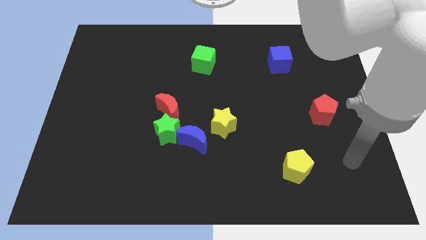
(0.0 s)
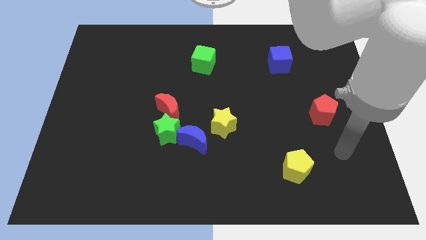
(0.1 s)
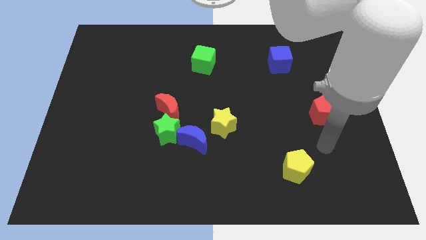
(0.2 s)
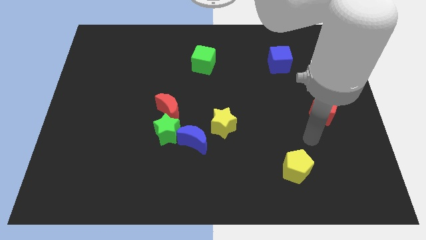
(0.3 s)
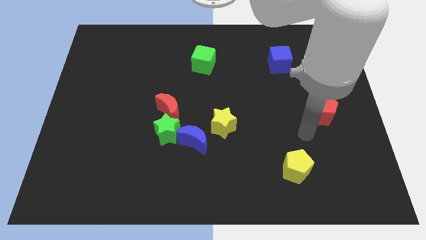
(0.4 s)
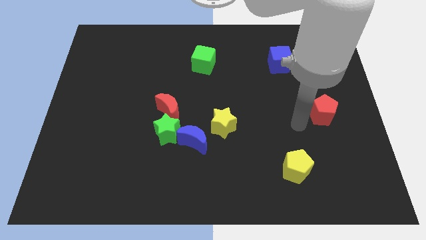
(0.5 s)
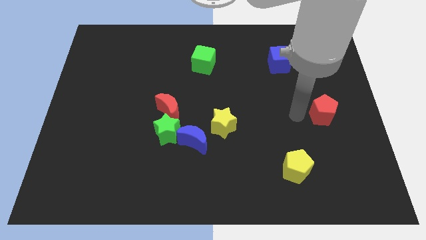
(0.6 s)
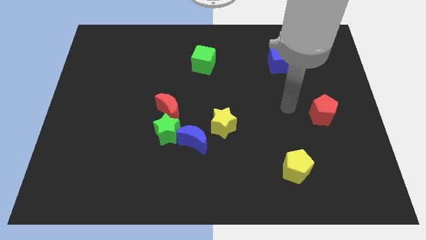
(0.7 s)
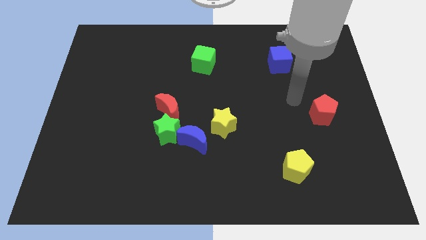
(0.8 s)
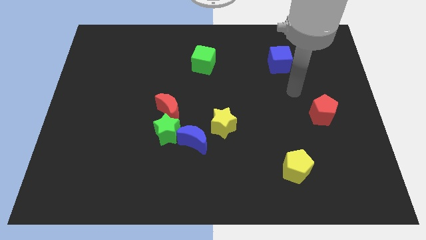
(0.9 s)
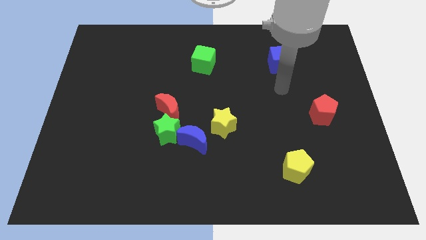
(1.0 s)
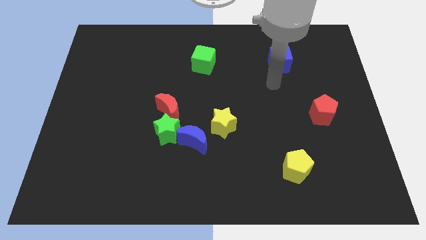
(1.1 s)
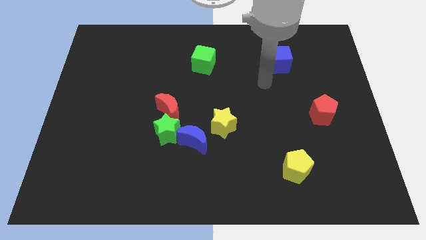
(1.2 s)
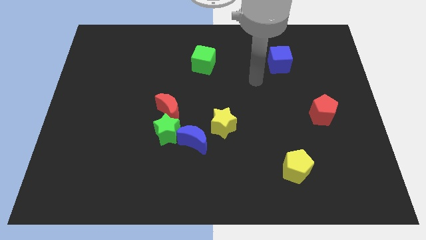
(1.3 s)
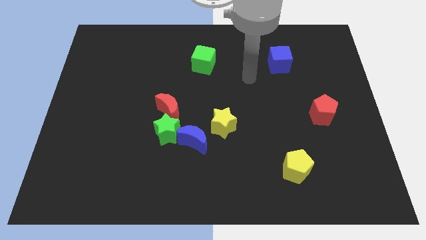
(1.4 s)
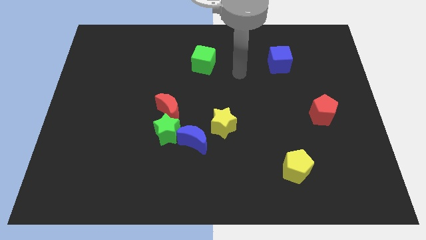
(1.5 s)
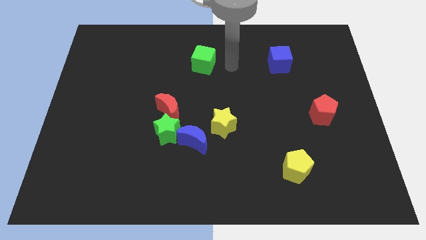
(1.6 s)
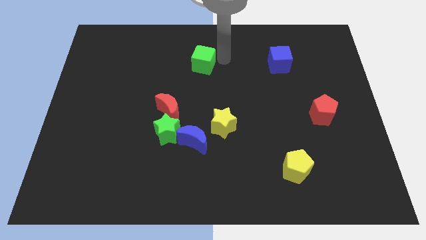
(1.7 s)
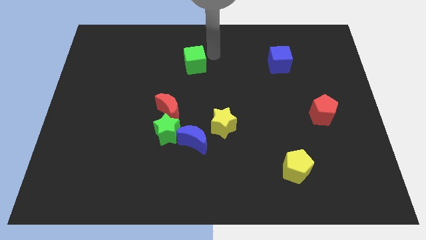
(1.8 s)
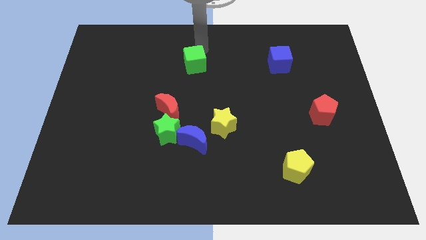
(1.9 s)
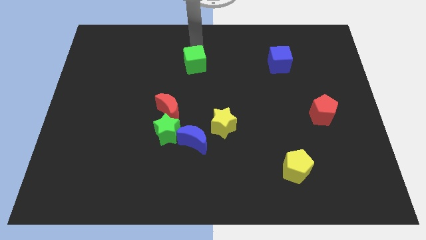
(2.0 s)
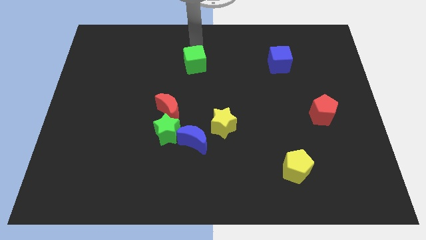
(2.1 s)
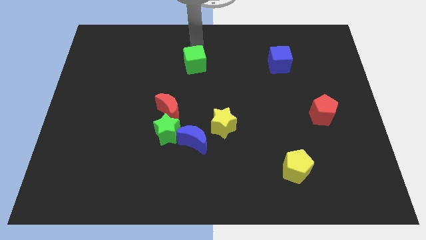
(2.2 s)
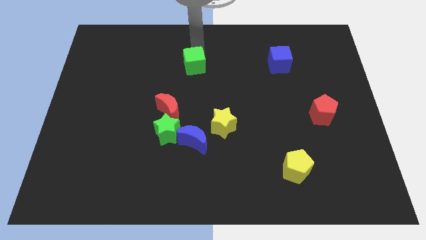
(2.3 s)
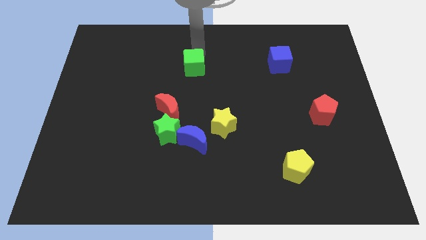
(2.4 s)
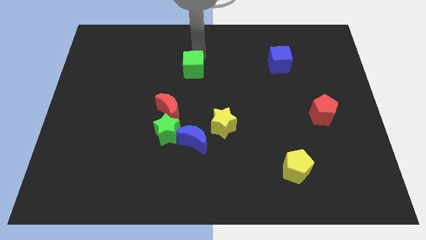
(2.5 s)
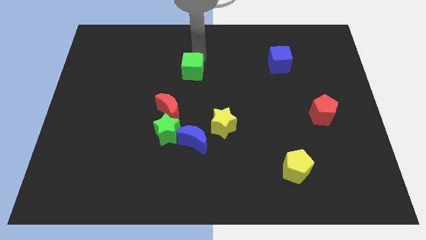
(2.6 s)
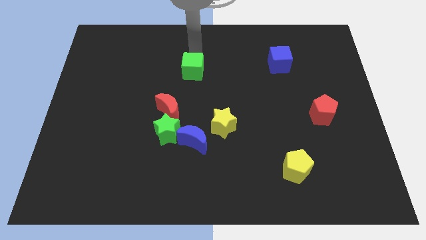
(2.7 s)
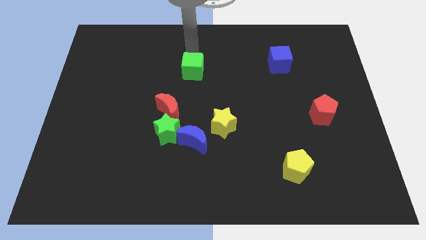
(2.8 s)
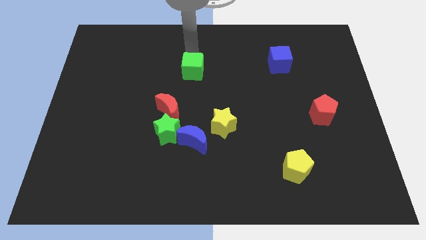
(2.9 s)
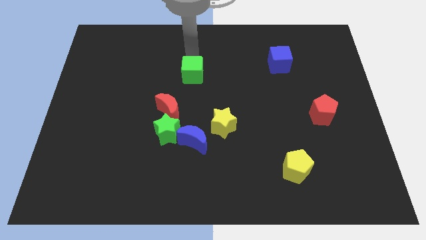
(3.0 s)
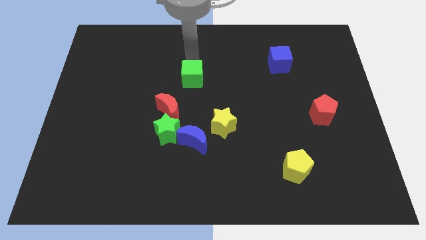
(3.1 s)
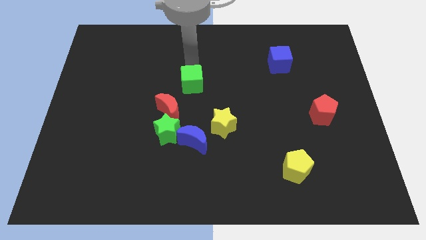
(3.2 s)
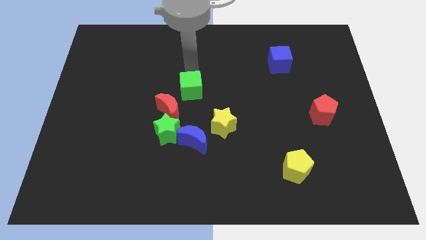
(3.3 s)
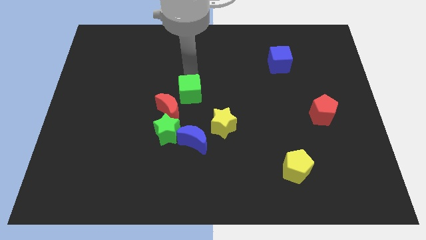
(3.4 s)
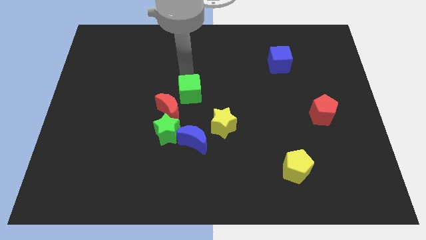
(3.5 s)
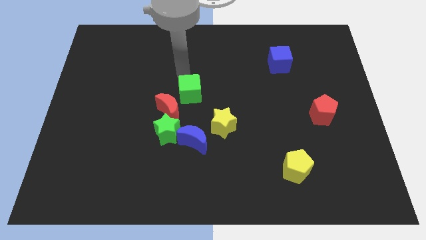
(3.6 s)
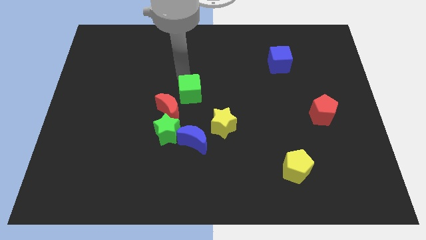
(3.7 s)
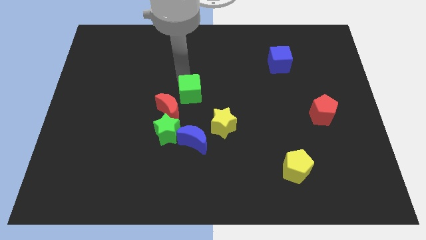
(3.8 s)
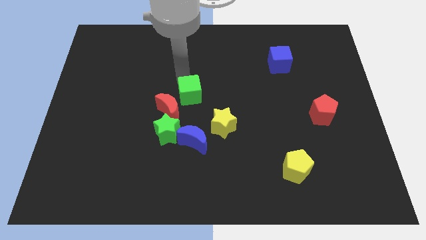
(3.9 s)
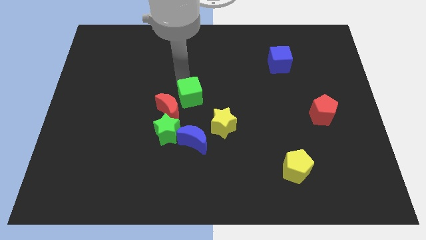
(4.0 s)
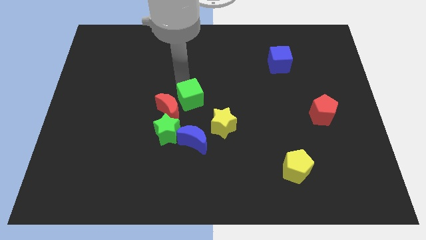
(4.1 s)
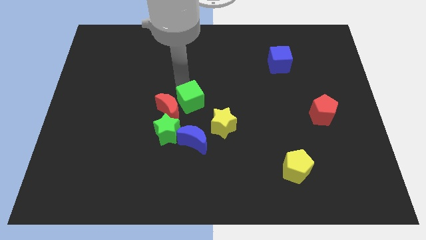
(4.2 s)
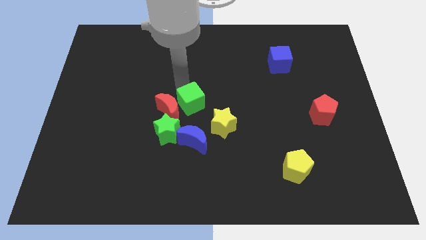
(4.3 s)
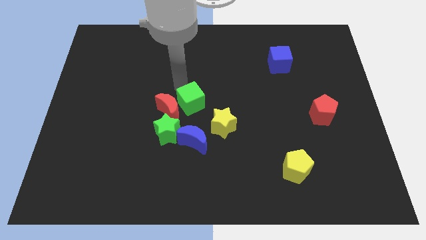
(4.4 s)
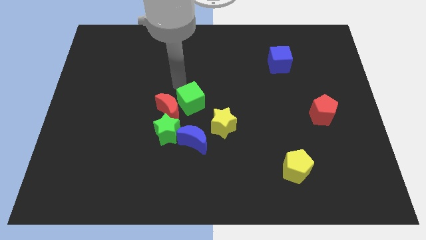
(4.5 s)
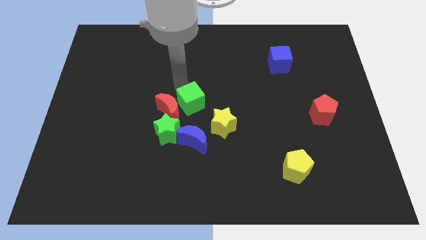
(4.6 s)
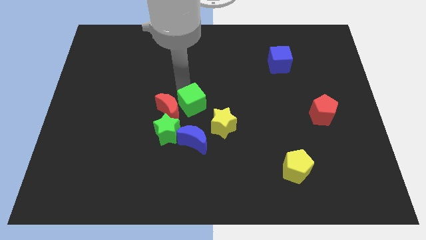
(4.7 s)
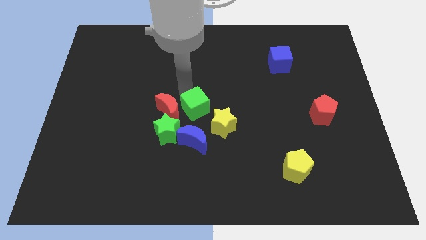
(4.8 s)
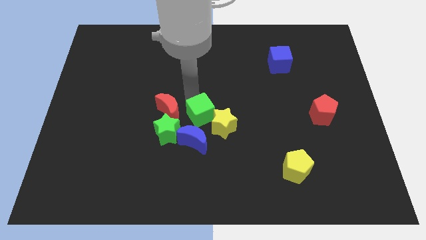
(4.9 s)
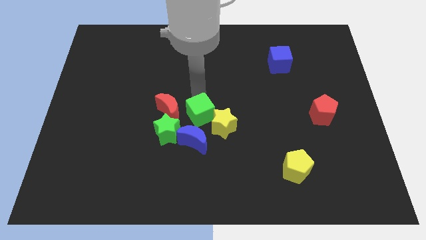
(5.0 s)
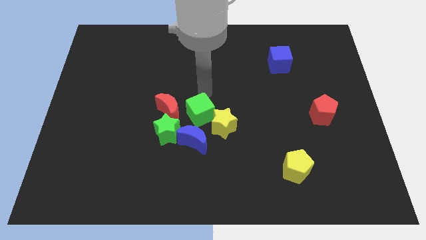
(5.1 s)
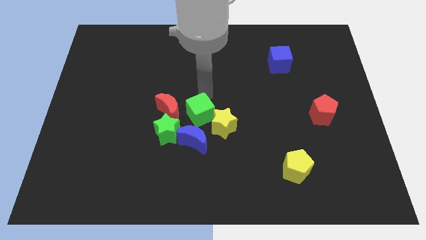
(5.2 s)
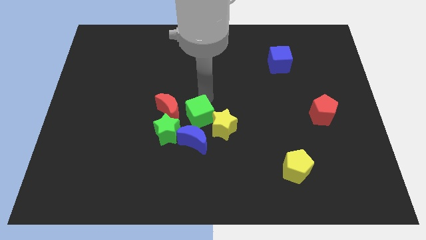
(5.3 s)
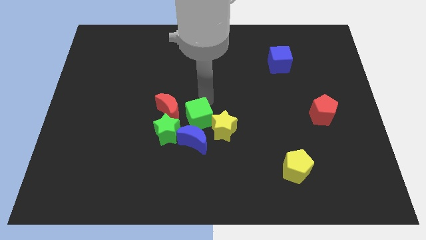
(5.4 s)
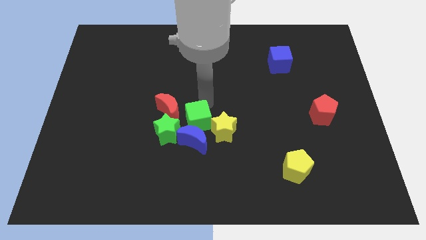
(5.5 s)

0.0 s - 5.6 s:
push the green cube to the blue moon

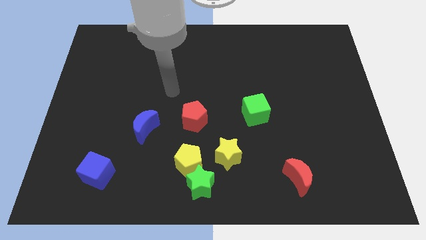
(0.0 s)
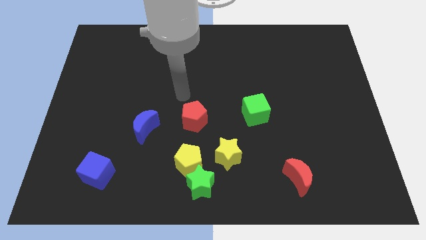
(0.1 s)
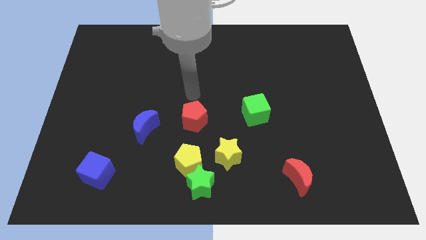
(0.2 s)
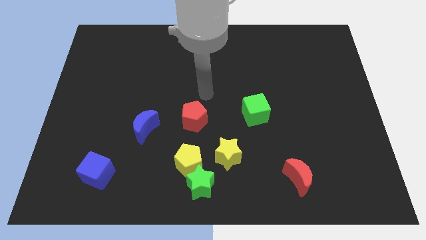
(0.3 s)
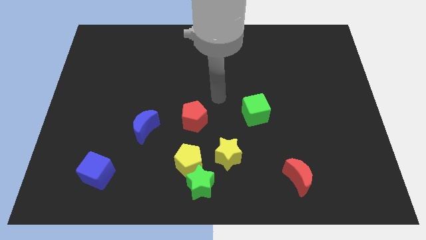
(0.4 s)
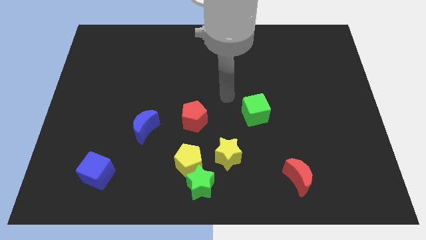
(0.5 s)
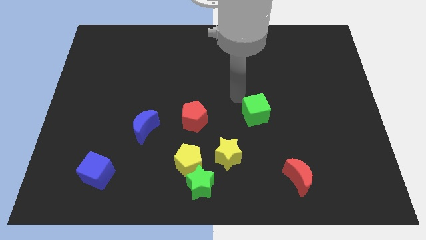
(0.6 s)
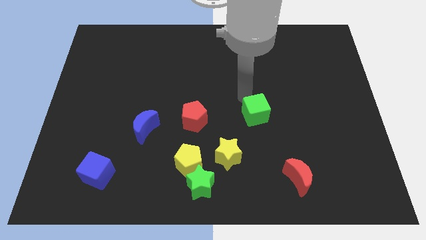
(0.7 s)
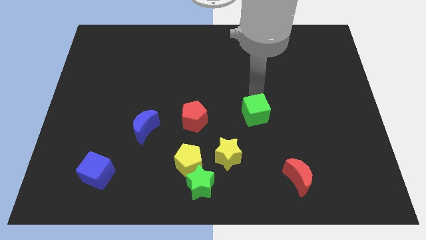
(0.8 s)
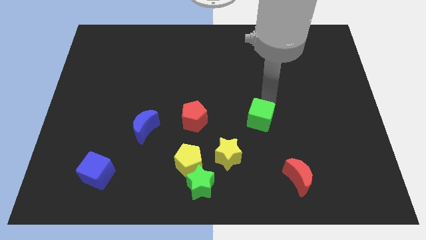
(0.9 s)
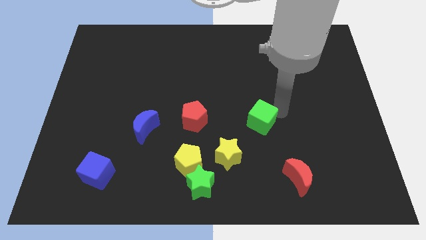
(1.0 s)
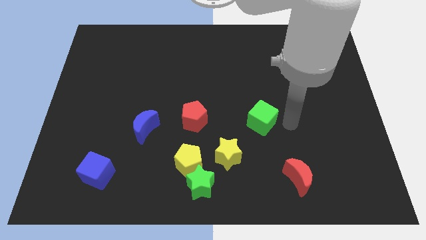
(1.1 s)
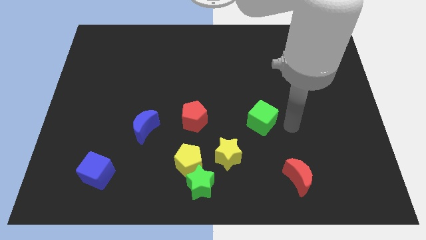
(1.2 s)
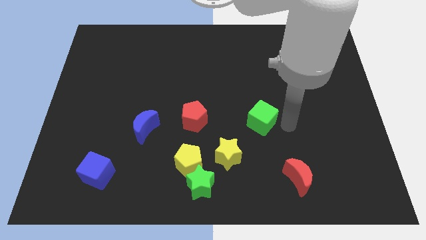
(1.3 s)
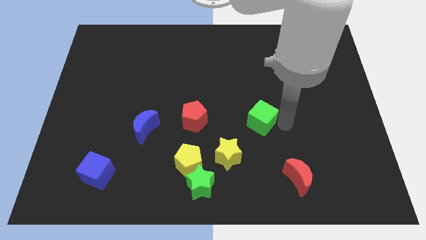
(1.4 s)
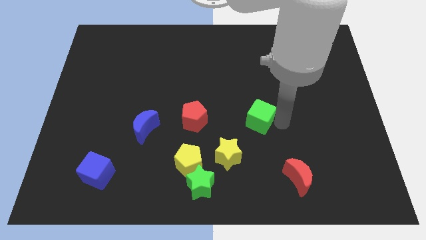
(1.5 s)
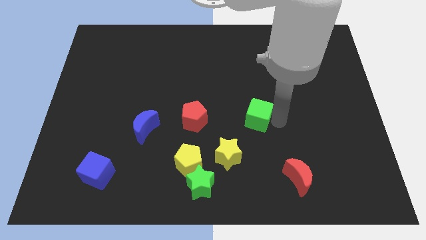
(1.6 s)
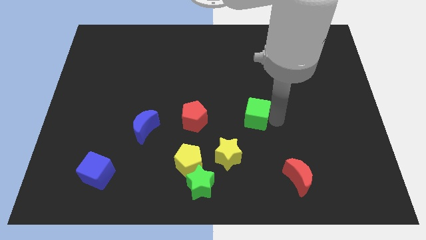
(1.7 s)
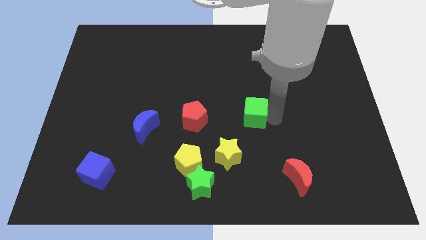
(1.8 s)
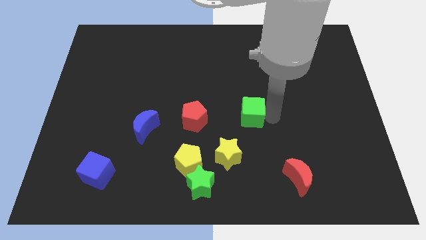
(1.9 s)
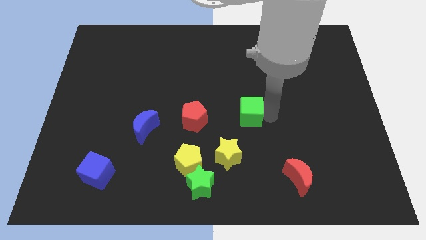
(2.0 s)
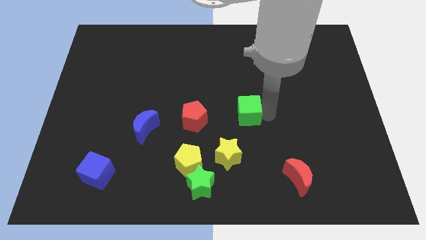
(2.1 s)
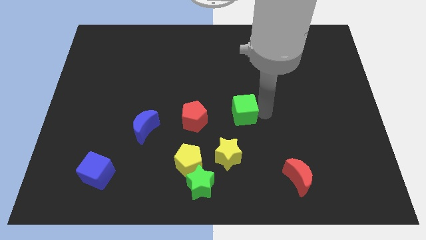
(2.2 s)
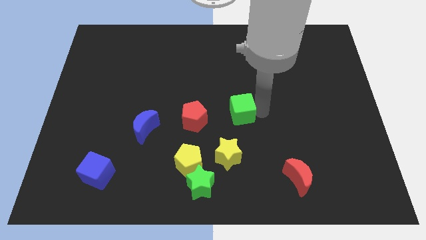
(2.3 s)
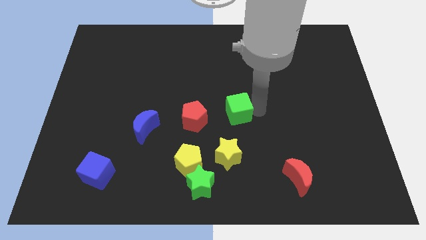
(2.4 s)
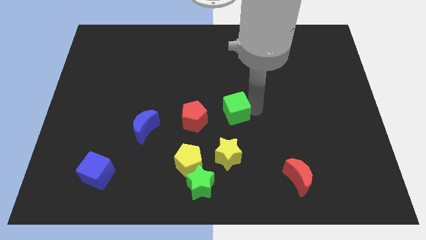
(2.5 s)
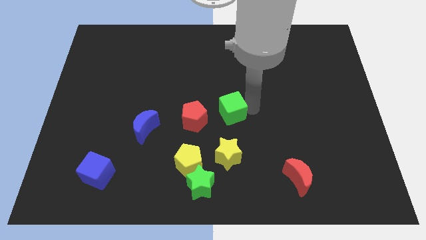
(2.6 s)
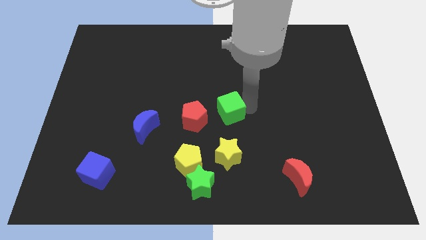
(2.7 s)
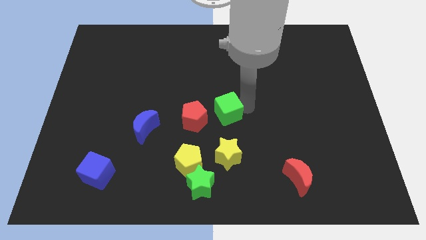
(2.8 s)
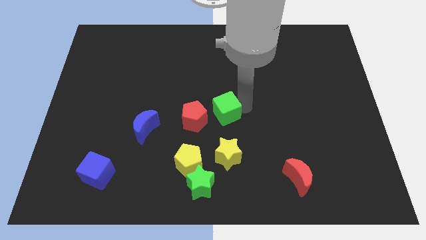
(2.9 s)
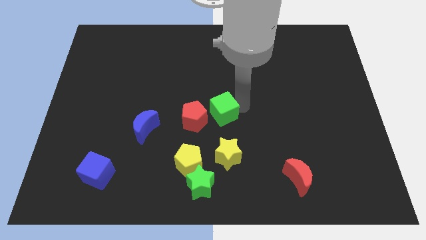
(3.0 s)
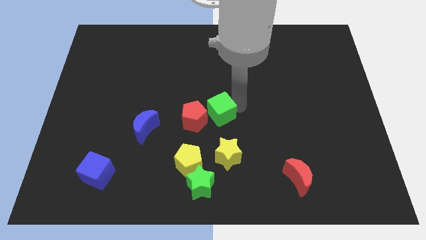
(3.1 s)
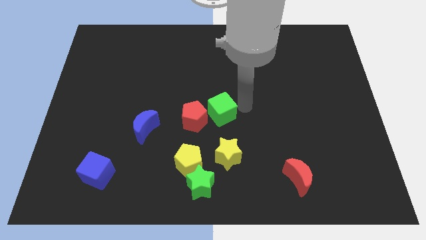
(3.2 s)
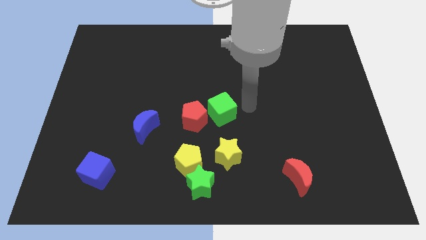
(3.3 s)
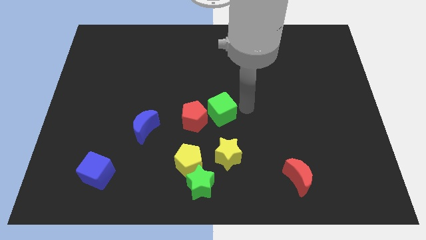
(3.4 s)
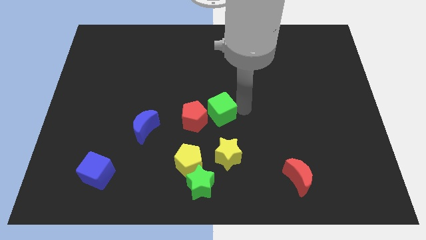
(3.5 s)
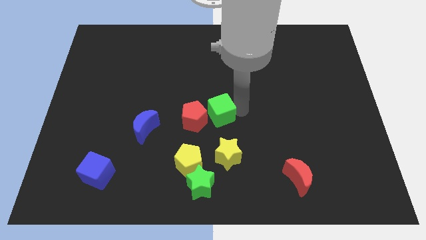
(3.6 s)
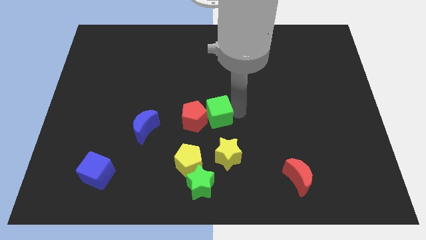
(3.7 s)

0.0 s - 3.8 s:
slide the green cube to the red pentagon
